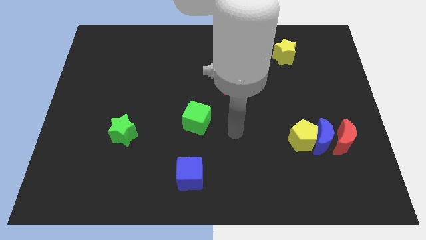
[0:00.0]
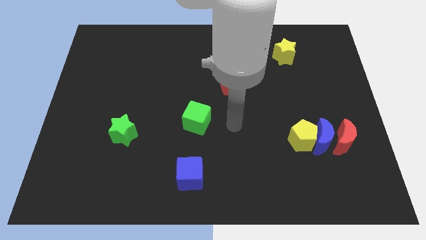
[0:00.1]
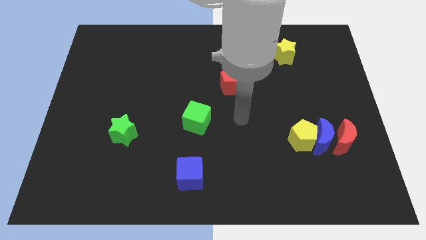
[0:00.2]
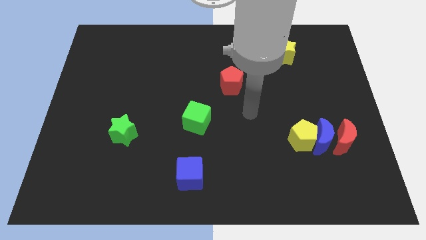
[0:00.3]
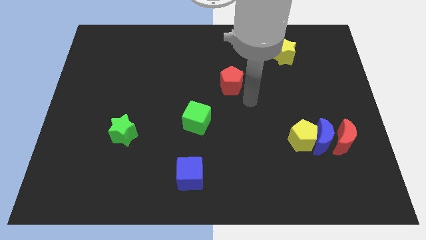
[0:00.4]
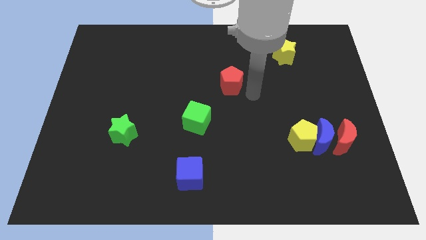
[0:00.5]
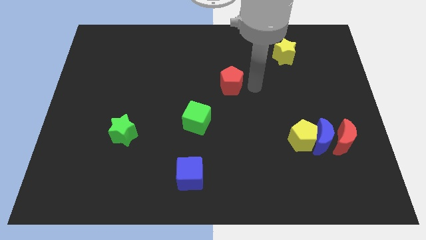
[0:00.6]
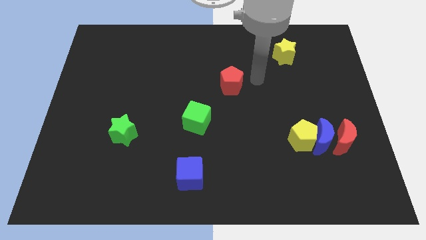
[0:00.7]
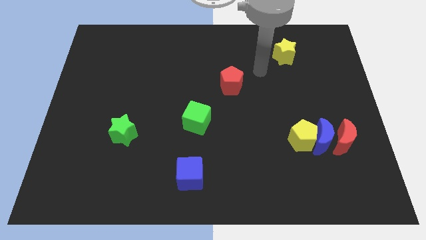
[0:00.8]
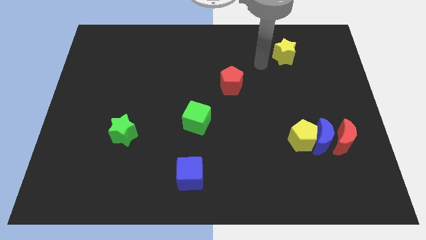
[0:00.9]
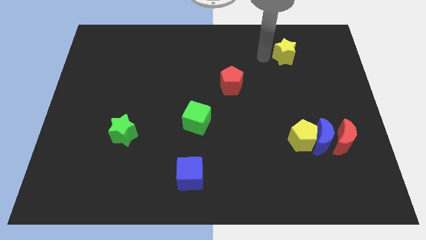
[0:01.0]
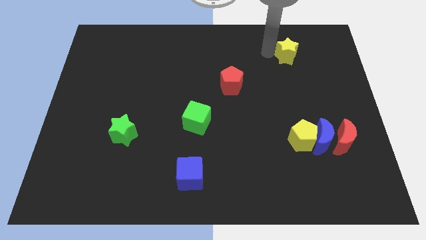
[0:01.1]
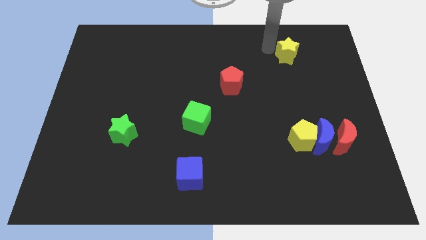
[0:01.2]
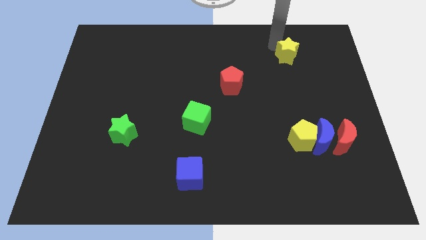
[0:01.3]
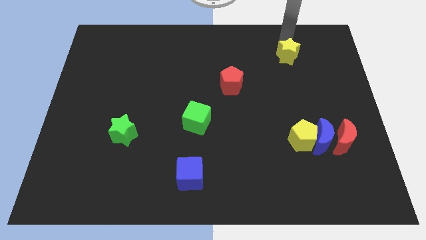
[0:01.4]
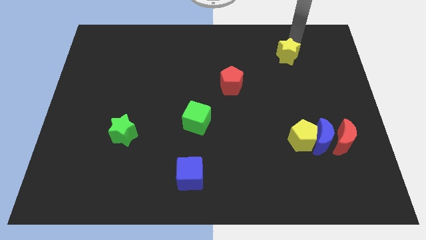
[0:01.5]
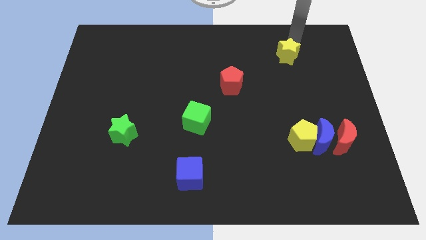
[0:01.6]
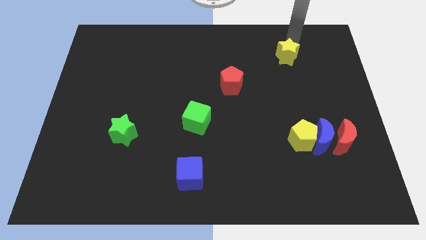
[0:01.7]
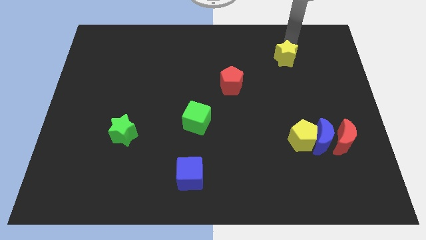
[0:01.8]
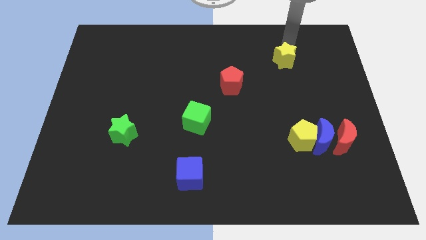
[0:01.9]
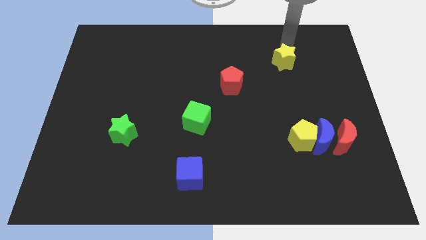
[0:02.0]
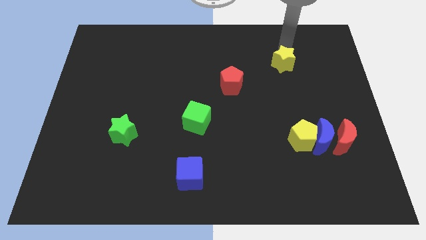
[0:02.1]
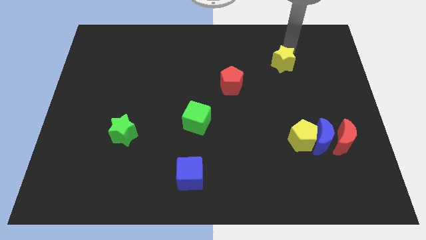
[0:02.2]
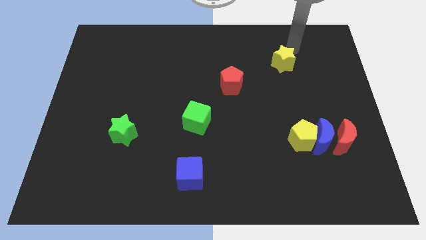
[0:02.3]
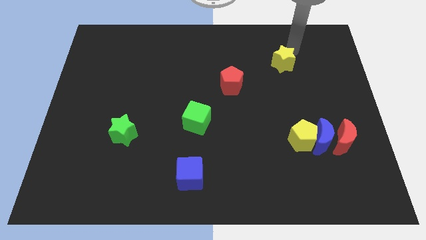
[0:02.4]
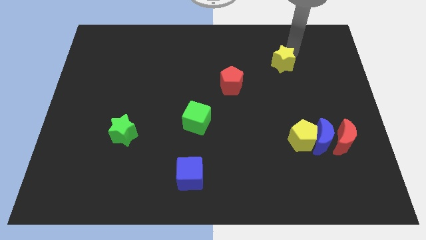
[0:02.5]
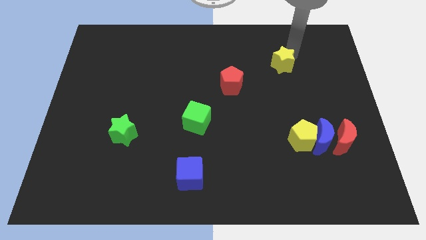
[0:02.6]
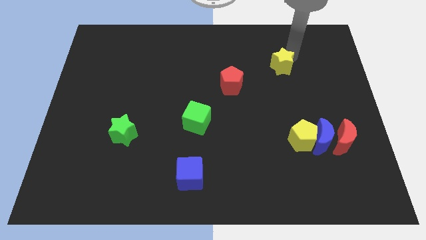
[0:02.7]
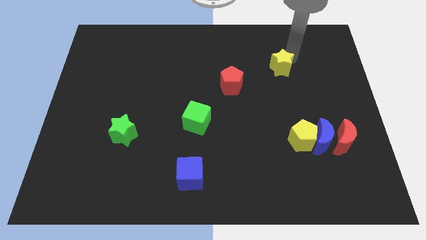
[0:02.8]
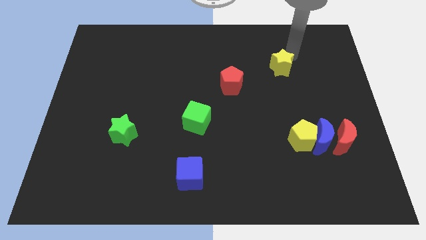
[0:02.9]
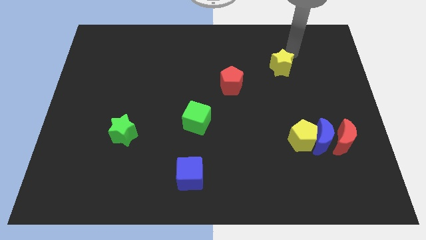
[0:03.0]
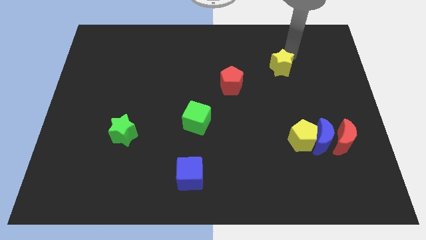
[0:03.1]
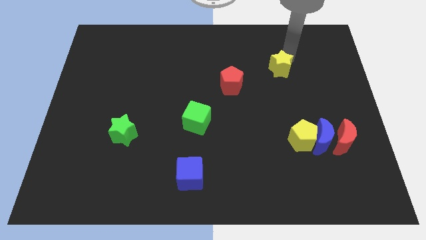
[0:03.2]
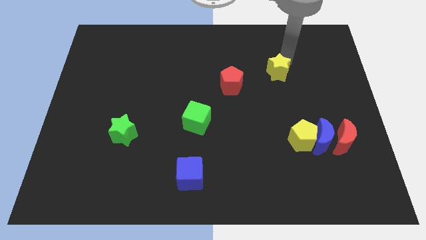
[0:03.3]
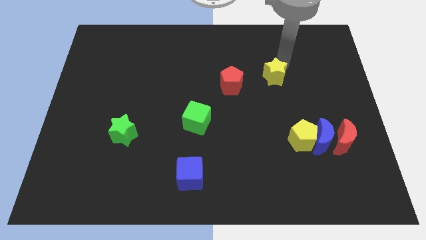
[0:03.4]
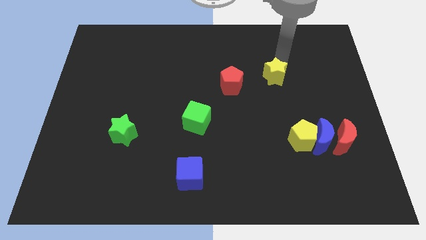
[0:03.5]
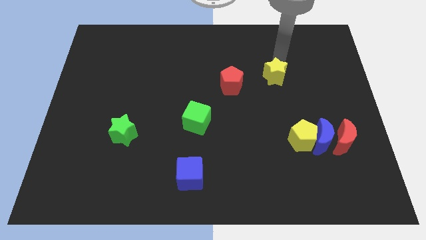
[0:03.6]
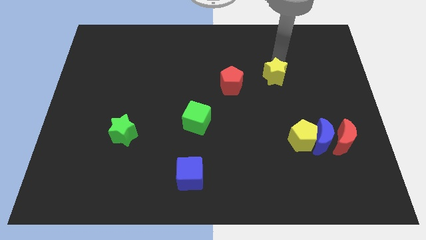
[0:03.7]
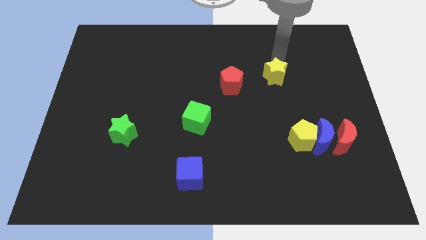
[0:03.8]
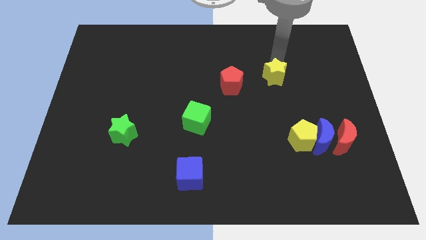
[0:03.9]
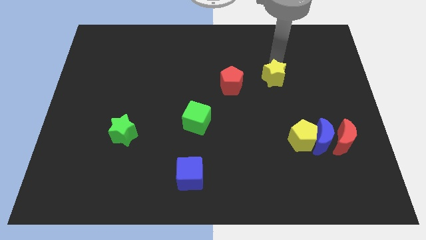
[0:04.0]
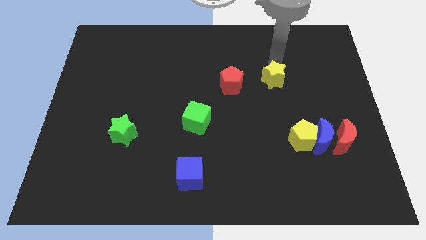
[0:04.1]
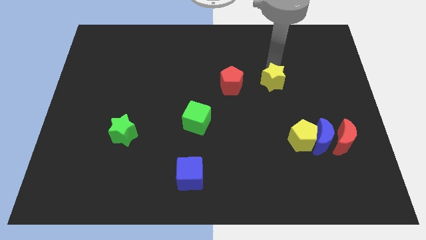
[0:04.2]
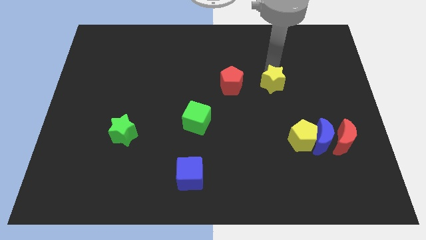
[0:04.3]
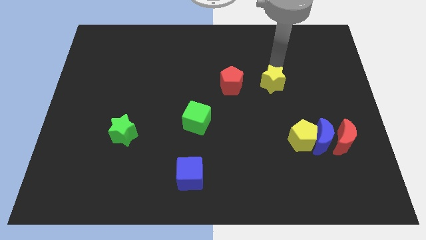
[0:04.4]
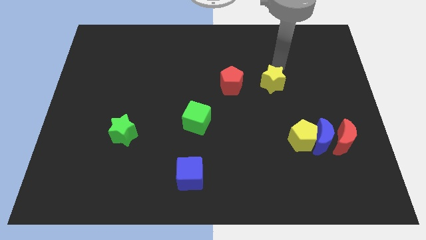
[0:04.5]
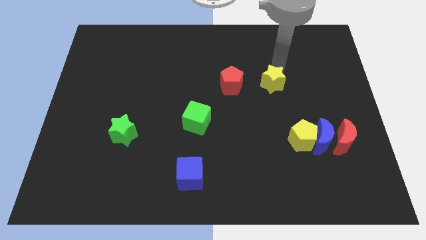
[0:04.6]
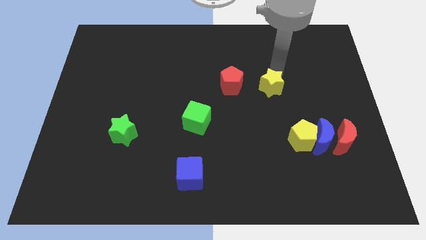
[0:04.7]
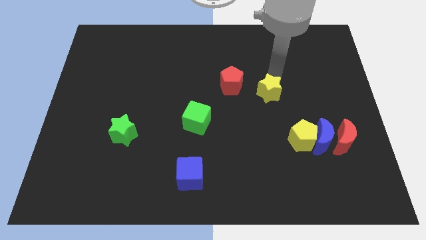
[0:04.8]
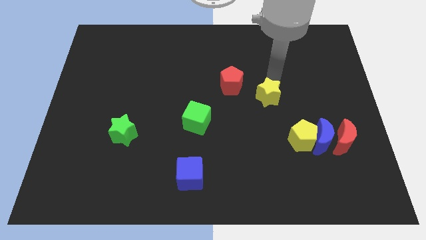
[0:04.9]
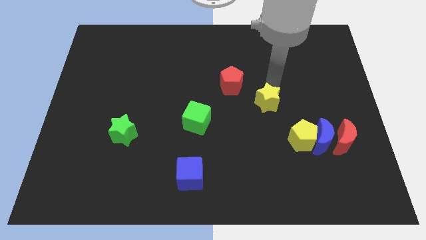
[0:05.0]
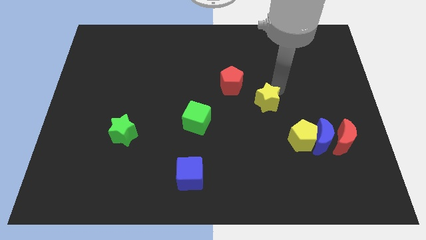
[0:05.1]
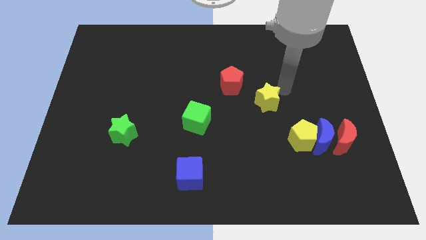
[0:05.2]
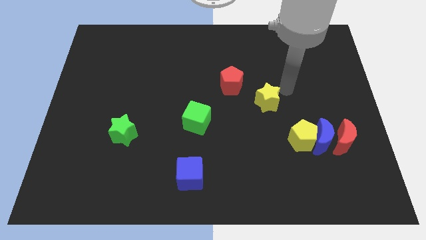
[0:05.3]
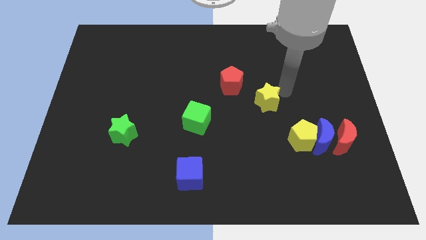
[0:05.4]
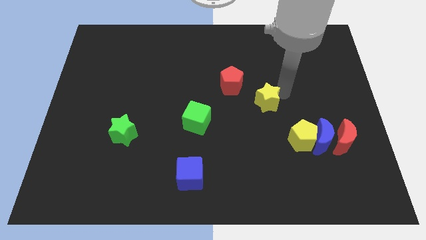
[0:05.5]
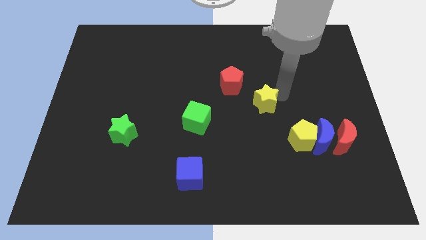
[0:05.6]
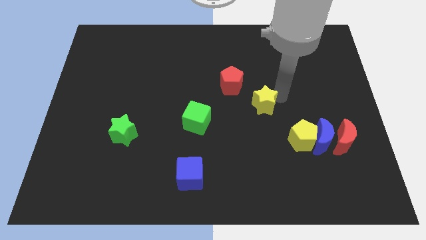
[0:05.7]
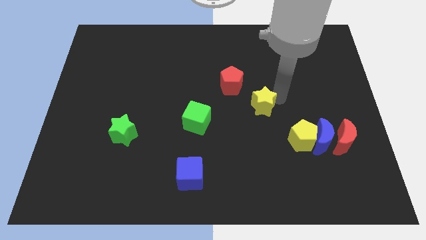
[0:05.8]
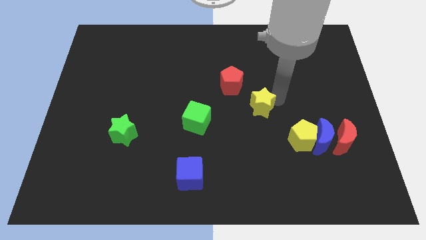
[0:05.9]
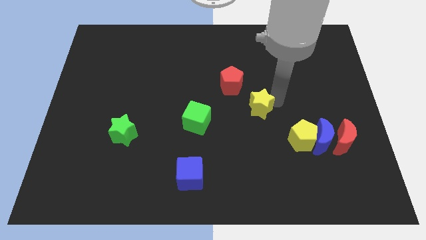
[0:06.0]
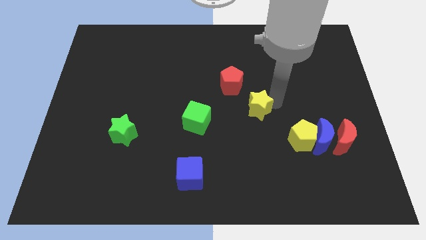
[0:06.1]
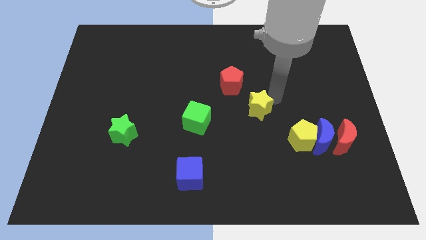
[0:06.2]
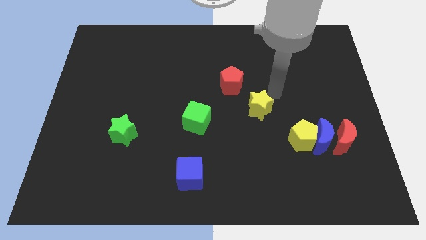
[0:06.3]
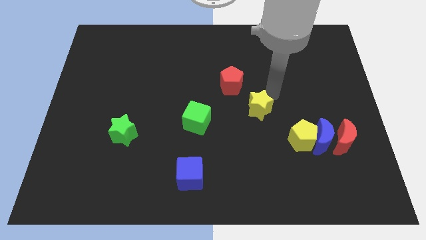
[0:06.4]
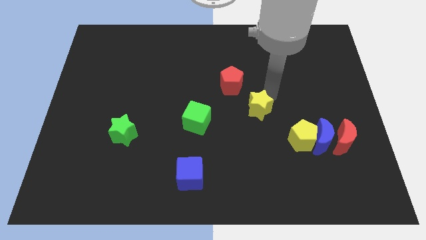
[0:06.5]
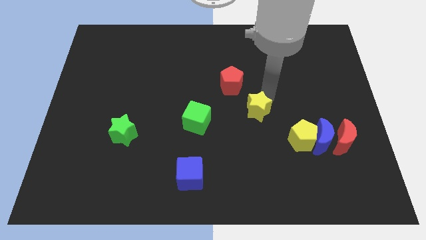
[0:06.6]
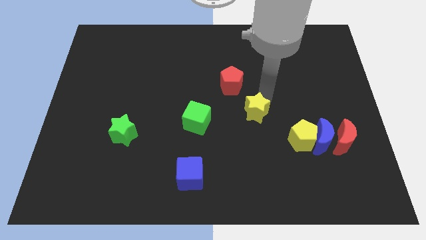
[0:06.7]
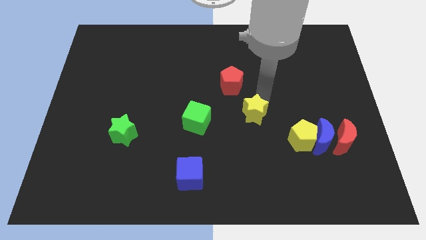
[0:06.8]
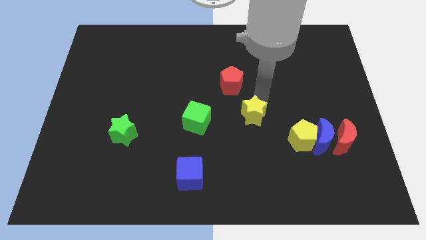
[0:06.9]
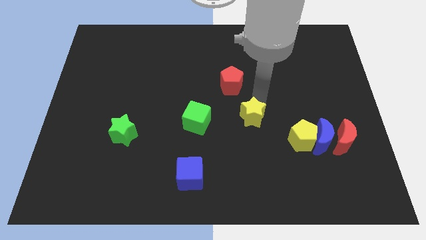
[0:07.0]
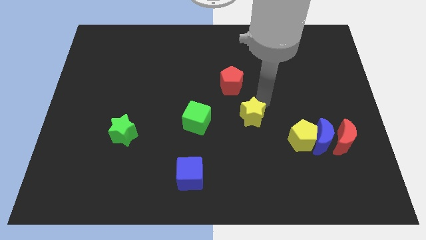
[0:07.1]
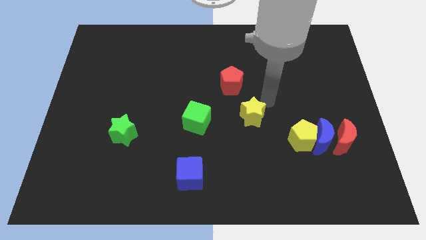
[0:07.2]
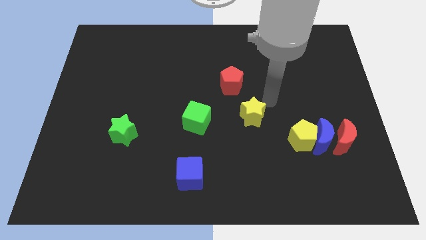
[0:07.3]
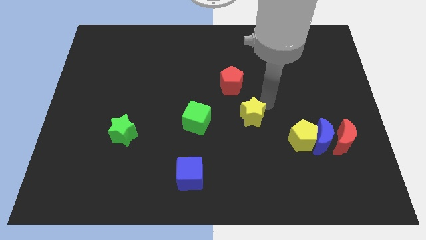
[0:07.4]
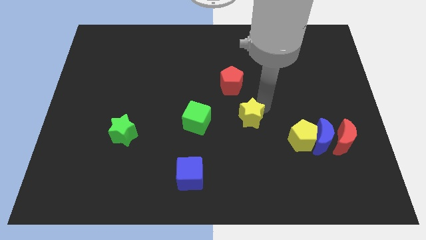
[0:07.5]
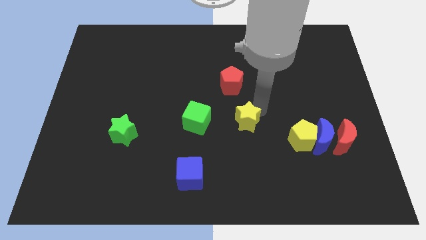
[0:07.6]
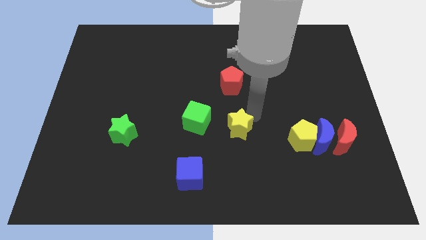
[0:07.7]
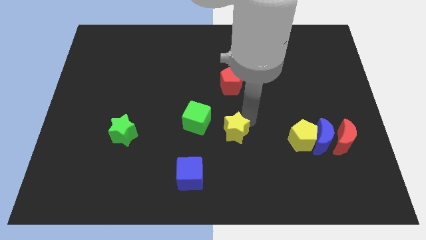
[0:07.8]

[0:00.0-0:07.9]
push the yellow star diagonally down and to the right of the green cube
